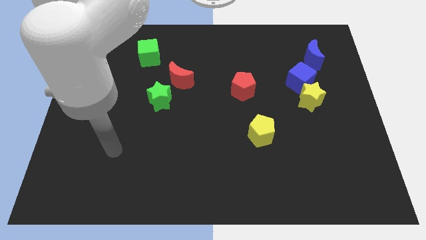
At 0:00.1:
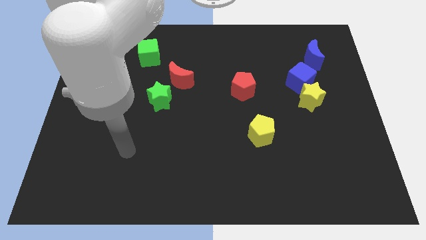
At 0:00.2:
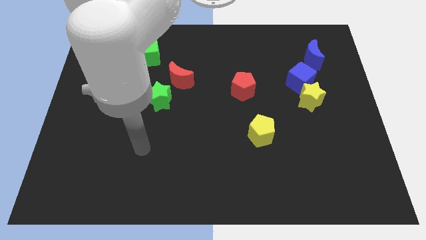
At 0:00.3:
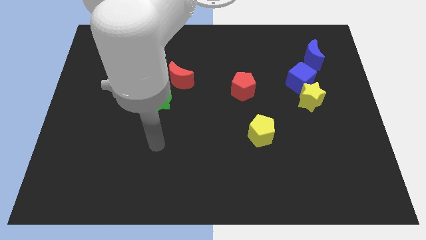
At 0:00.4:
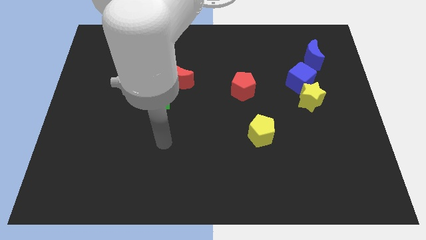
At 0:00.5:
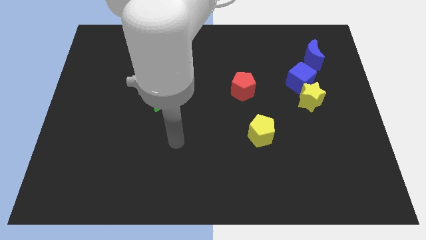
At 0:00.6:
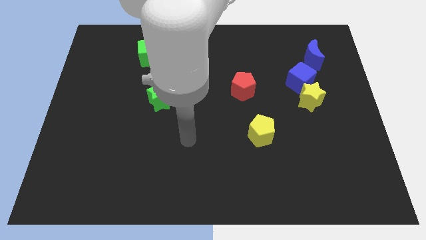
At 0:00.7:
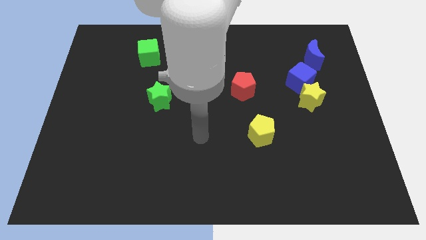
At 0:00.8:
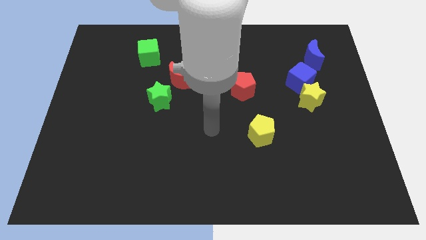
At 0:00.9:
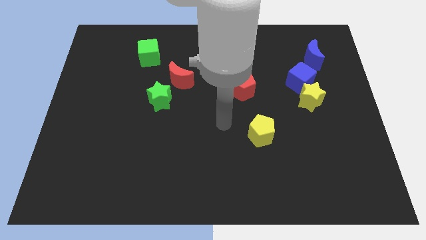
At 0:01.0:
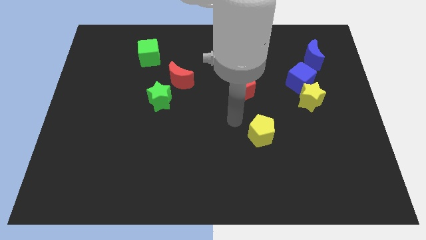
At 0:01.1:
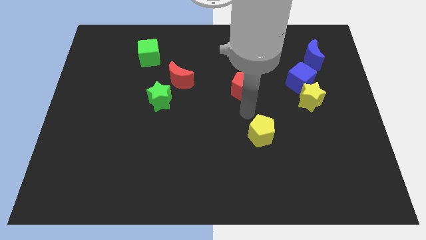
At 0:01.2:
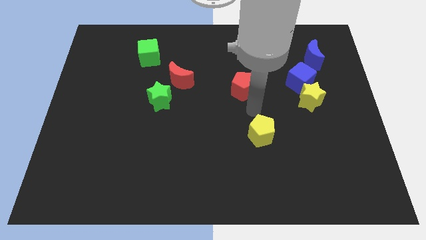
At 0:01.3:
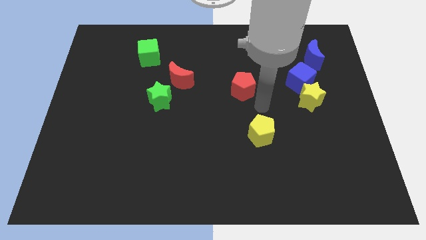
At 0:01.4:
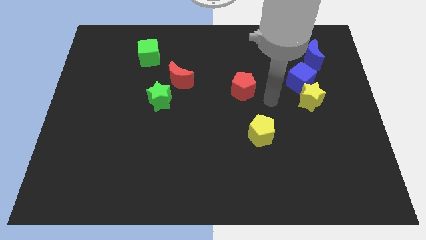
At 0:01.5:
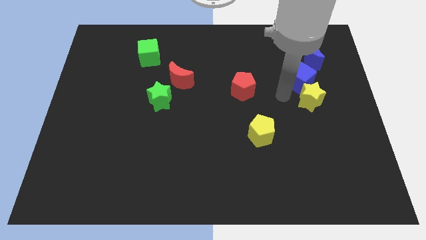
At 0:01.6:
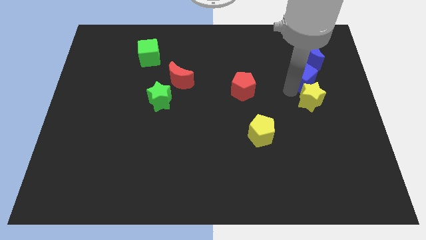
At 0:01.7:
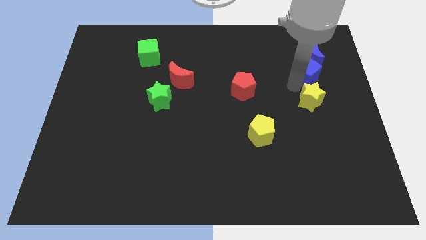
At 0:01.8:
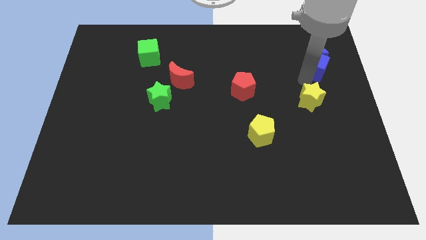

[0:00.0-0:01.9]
move the yellow star away from the blue cube

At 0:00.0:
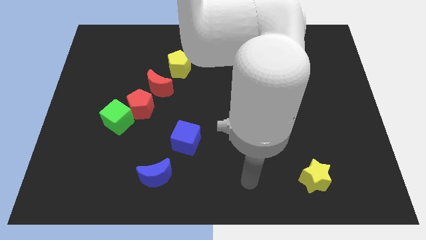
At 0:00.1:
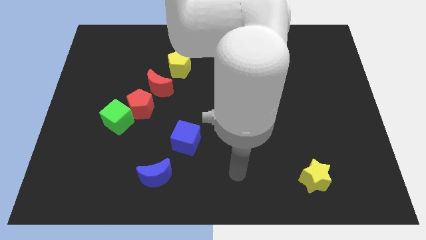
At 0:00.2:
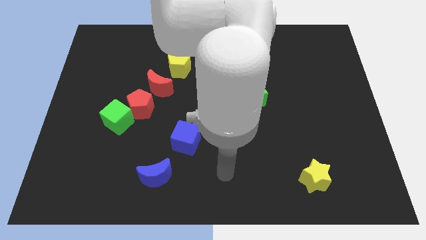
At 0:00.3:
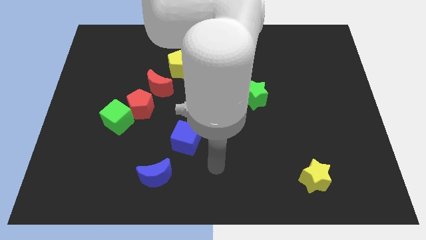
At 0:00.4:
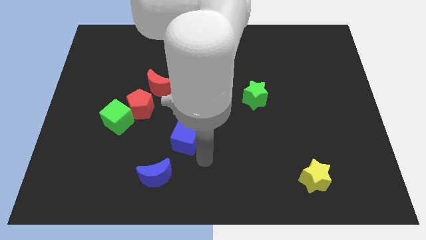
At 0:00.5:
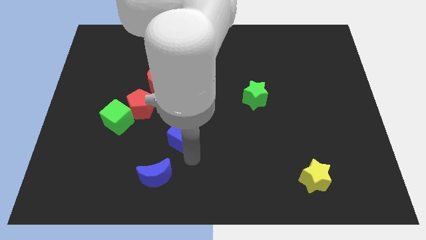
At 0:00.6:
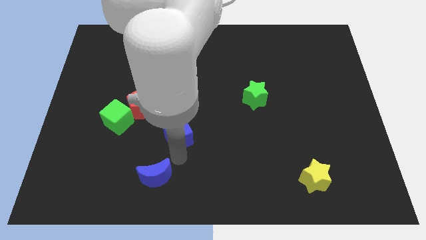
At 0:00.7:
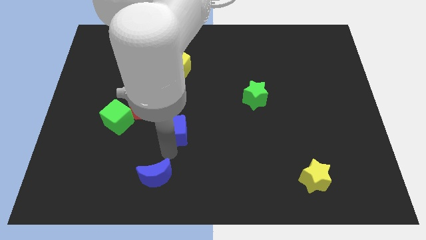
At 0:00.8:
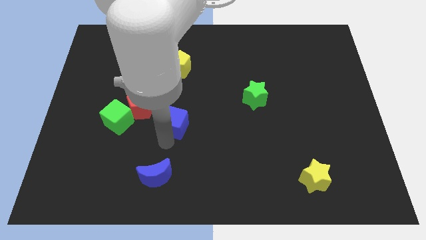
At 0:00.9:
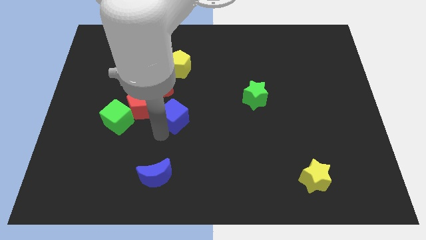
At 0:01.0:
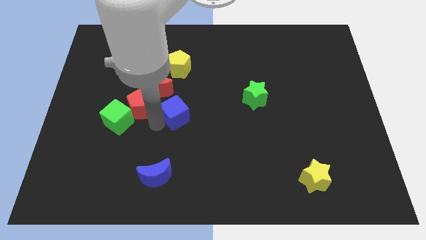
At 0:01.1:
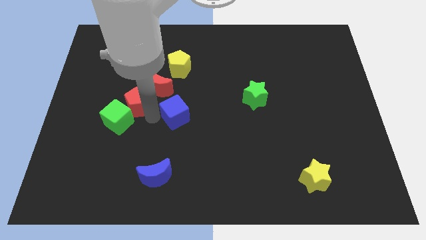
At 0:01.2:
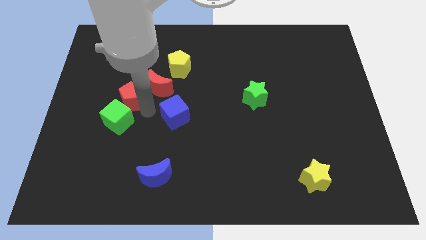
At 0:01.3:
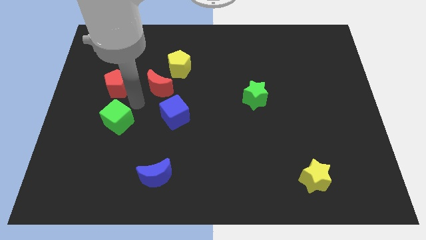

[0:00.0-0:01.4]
separate the green cube from the red pentagon

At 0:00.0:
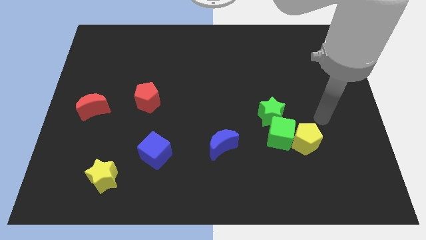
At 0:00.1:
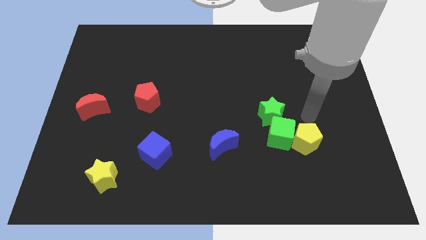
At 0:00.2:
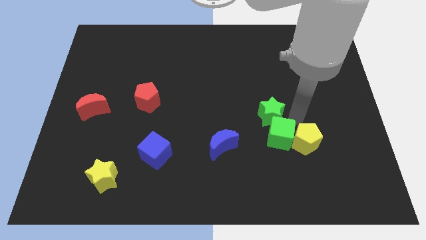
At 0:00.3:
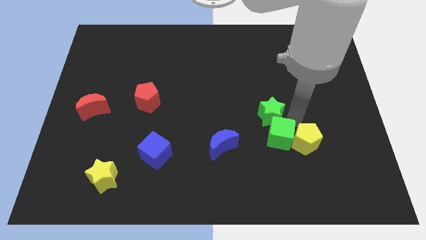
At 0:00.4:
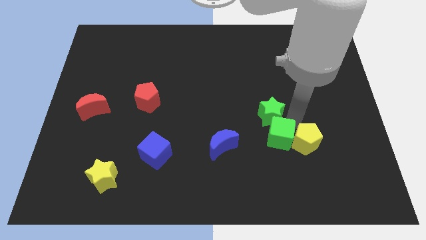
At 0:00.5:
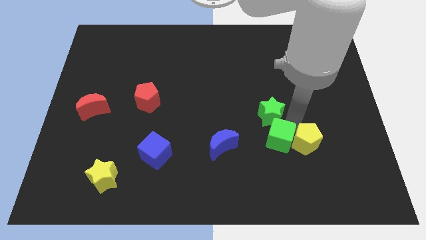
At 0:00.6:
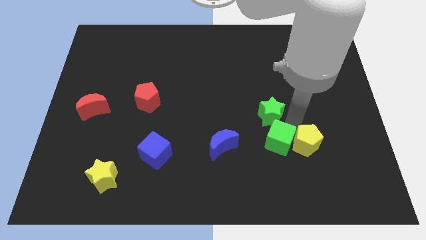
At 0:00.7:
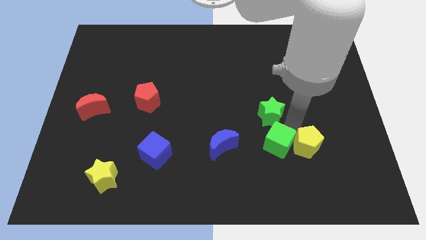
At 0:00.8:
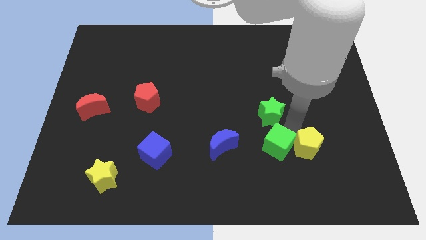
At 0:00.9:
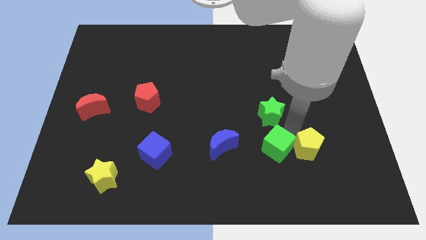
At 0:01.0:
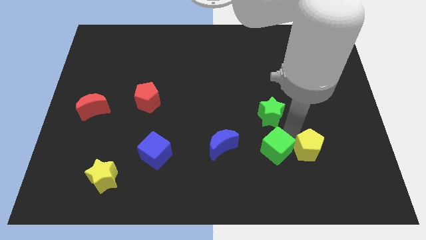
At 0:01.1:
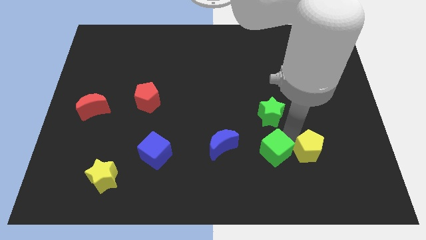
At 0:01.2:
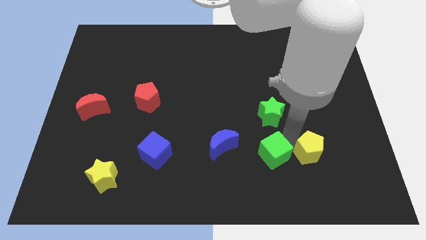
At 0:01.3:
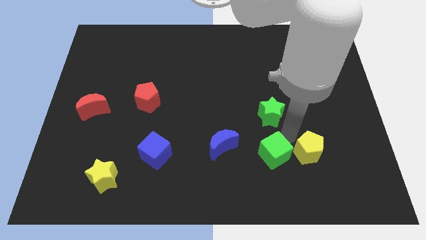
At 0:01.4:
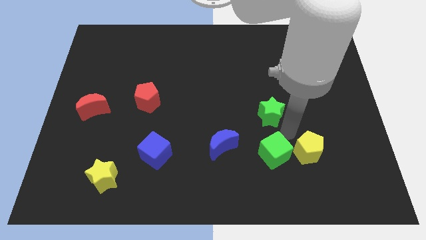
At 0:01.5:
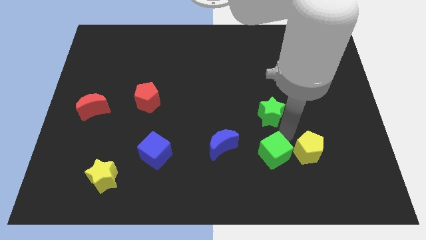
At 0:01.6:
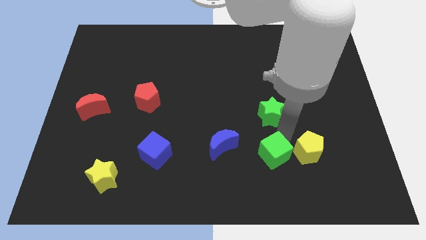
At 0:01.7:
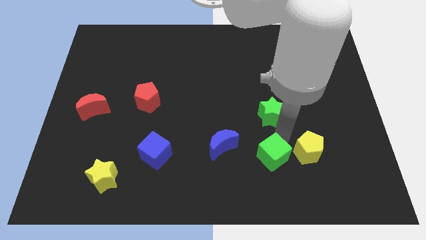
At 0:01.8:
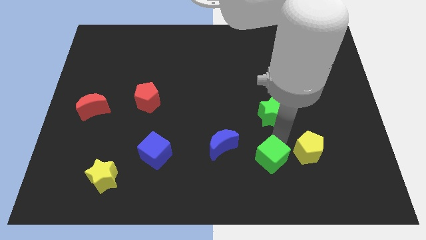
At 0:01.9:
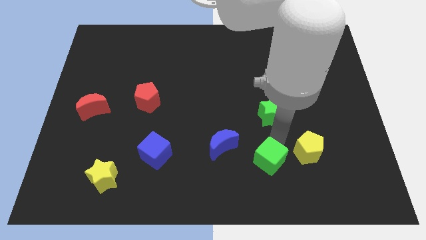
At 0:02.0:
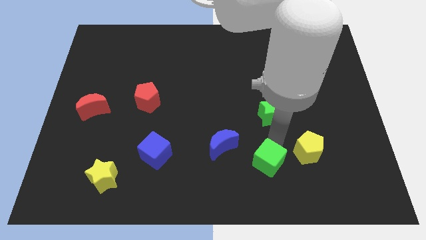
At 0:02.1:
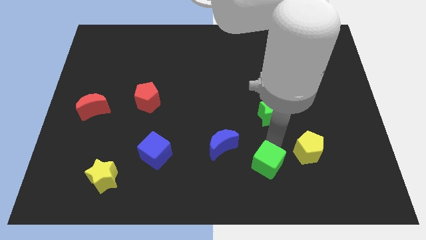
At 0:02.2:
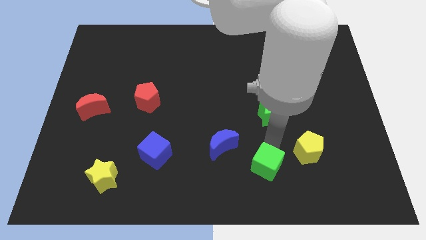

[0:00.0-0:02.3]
pull the green cube apart from the yellow pentagon and green star

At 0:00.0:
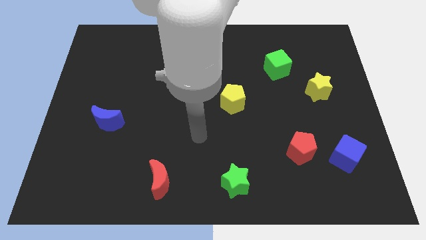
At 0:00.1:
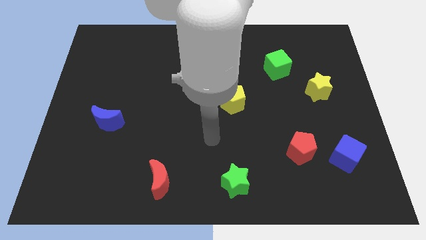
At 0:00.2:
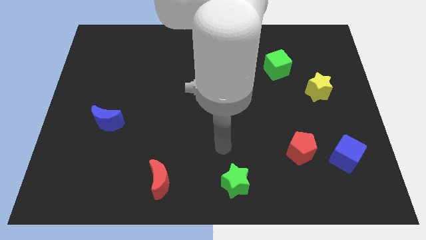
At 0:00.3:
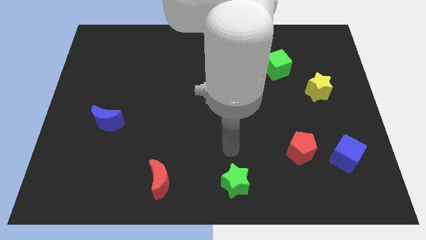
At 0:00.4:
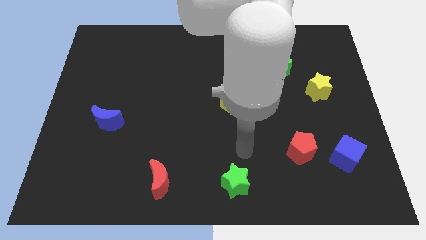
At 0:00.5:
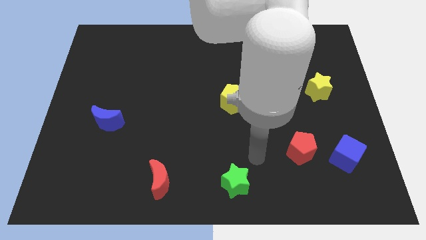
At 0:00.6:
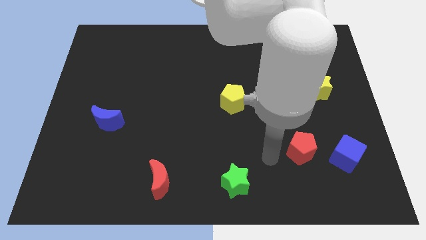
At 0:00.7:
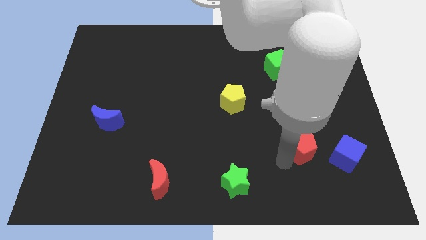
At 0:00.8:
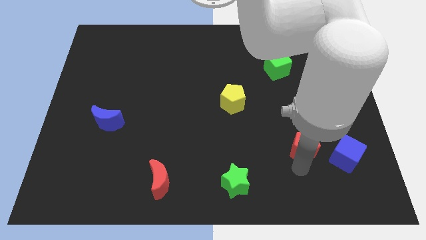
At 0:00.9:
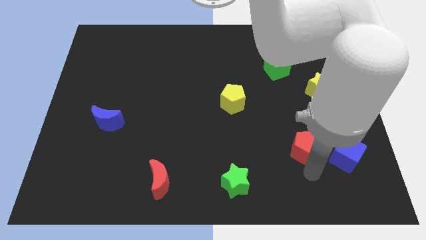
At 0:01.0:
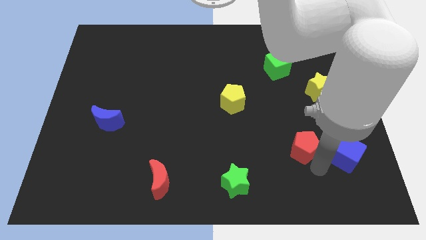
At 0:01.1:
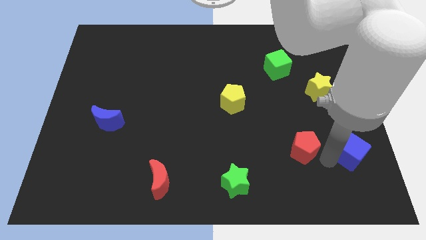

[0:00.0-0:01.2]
pull the red pentagon apart from the blue cube

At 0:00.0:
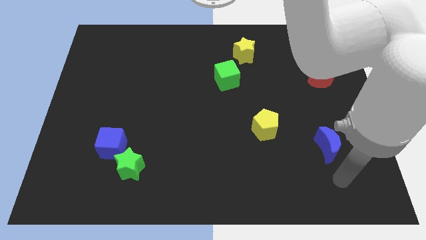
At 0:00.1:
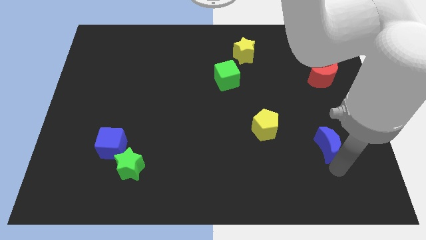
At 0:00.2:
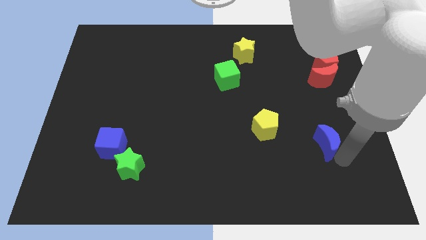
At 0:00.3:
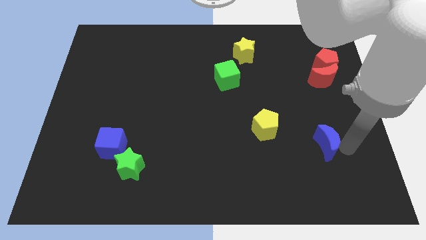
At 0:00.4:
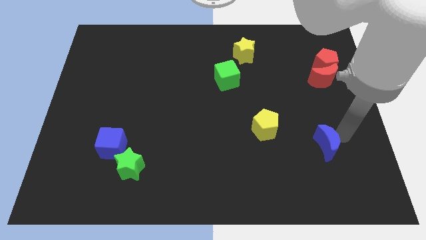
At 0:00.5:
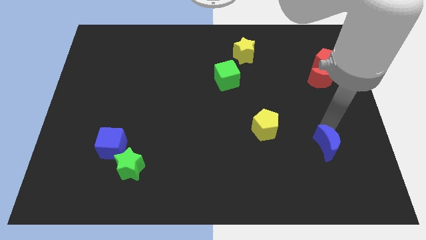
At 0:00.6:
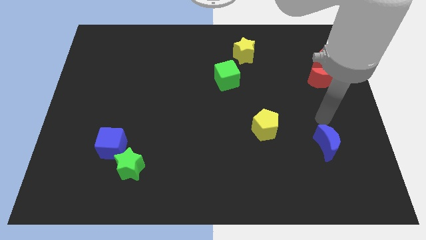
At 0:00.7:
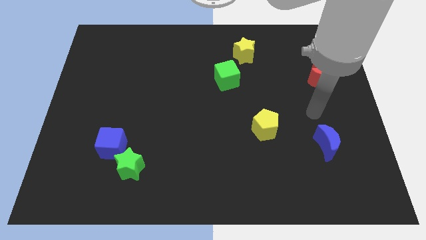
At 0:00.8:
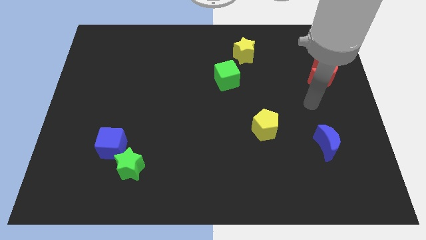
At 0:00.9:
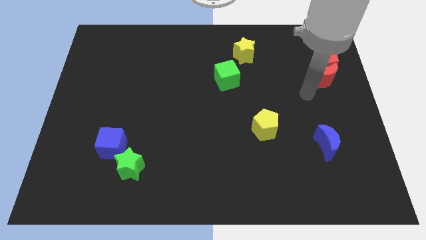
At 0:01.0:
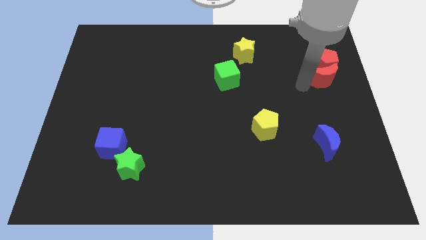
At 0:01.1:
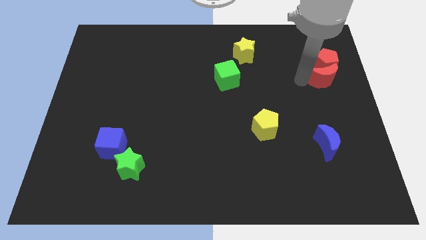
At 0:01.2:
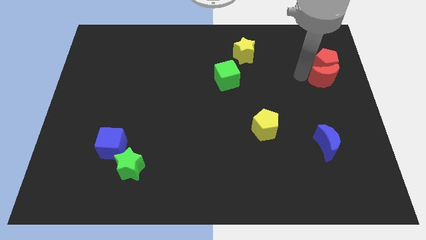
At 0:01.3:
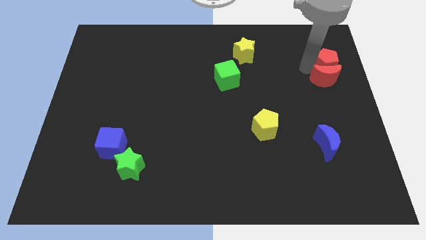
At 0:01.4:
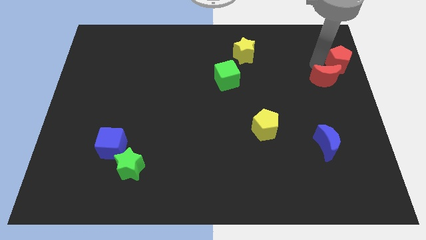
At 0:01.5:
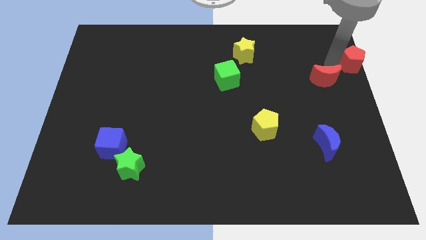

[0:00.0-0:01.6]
separate the red moon from the red pentagon

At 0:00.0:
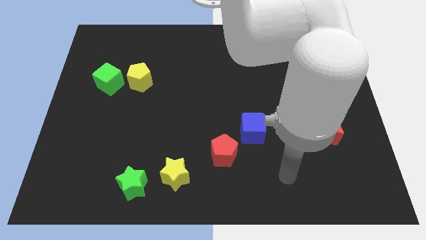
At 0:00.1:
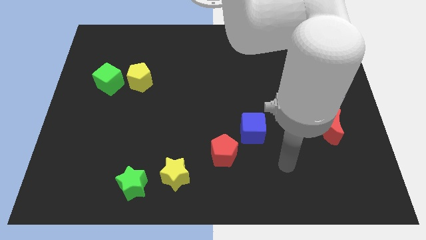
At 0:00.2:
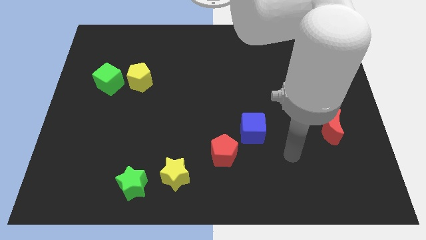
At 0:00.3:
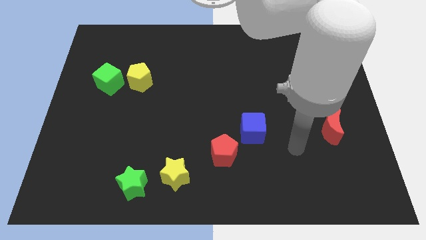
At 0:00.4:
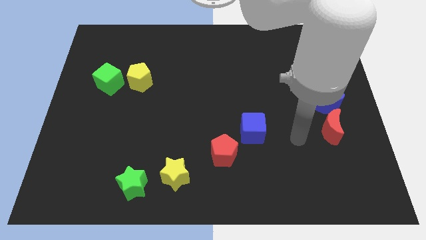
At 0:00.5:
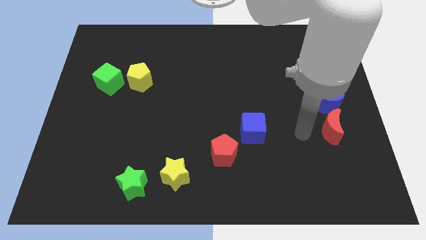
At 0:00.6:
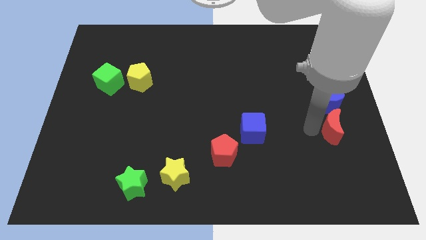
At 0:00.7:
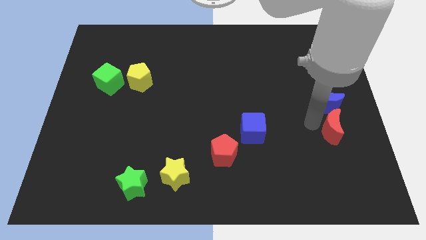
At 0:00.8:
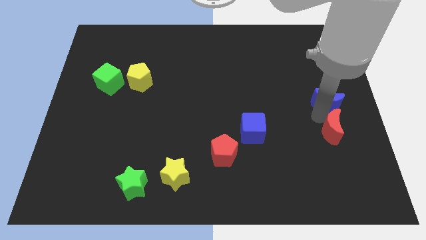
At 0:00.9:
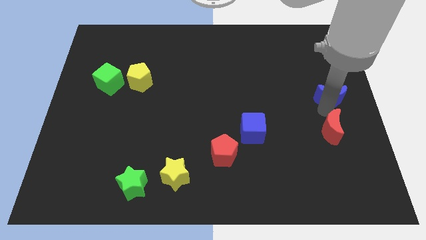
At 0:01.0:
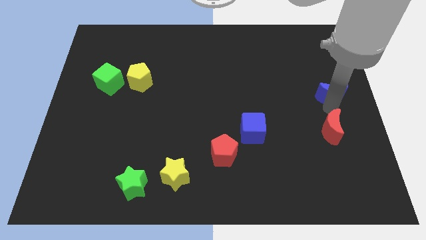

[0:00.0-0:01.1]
pull the red moon apart from the blue moon
